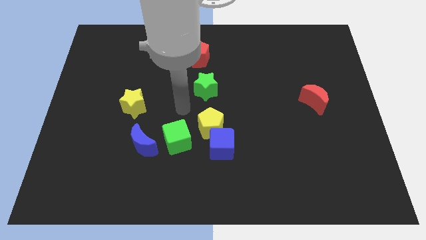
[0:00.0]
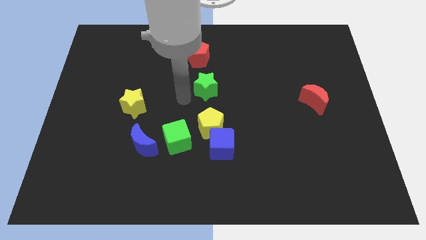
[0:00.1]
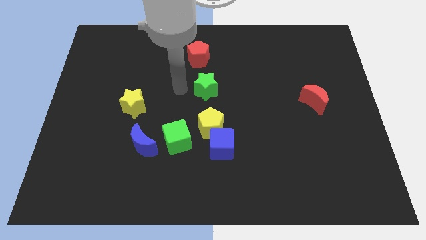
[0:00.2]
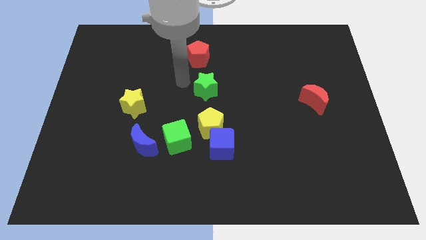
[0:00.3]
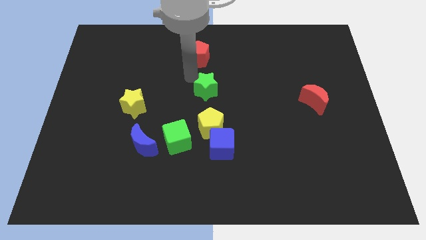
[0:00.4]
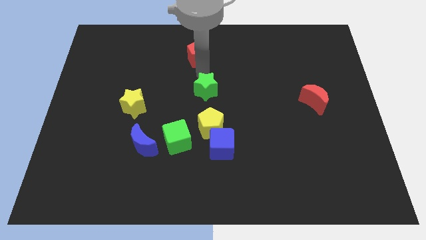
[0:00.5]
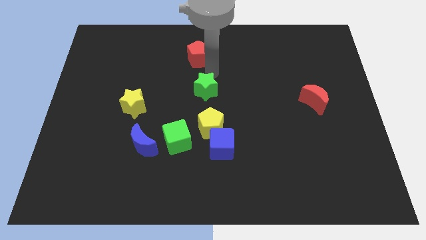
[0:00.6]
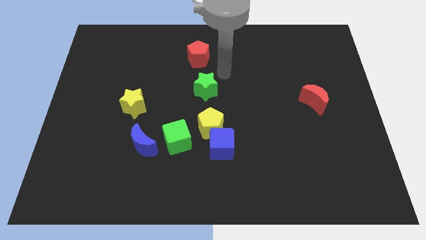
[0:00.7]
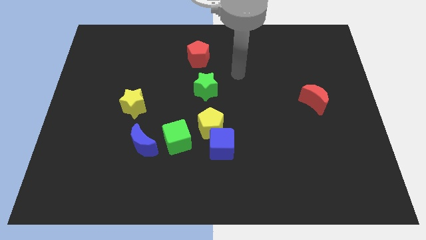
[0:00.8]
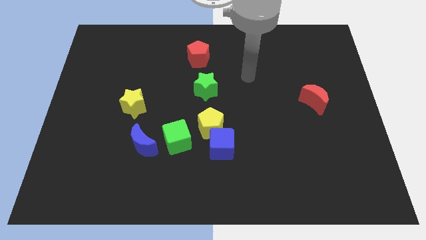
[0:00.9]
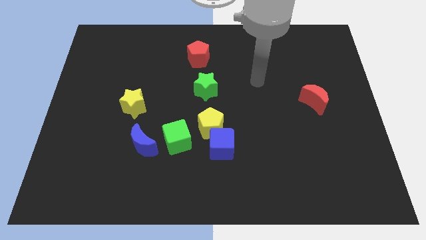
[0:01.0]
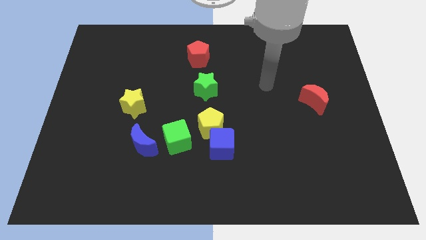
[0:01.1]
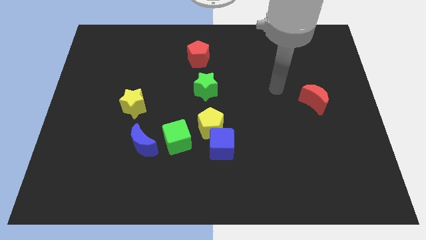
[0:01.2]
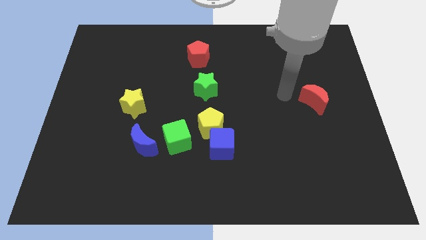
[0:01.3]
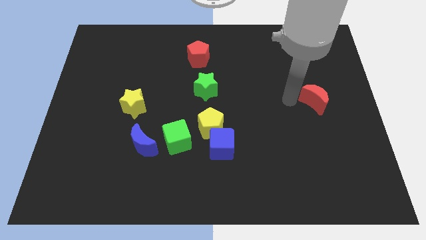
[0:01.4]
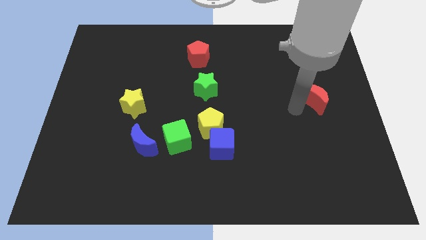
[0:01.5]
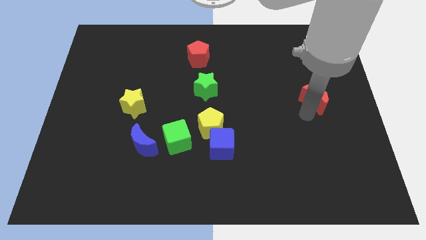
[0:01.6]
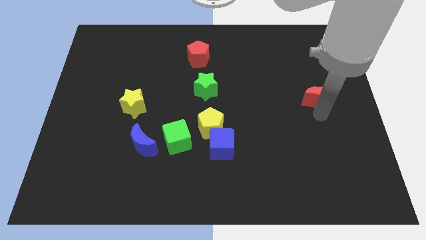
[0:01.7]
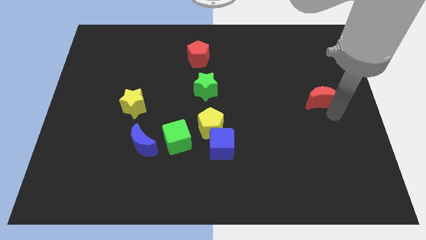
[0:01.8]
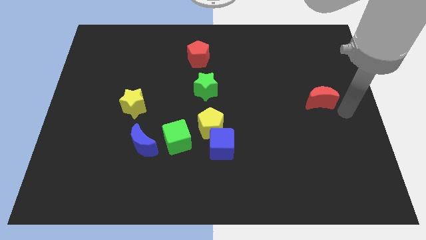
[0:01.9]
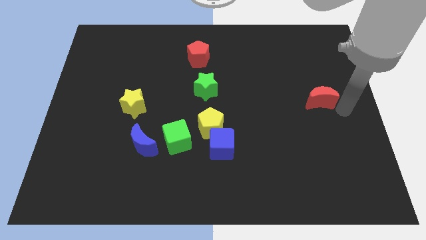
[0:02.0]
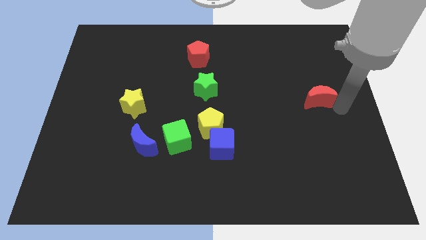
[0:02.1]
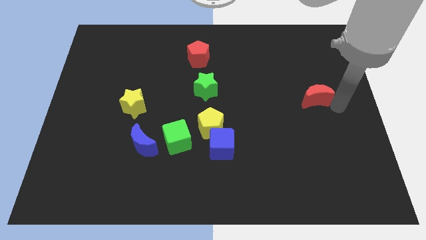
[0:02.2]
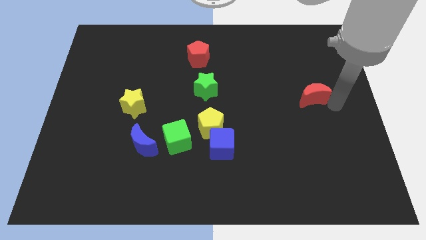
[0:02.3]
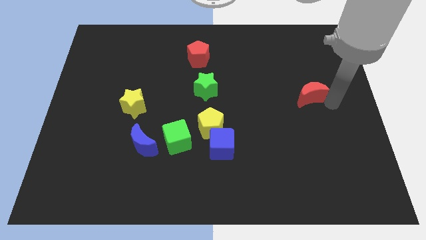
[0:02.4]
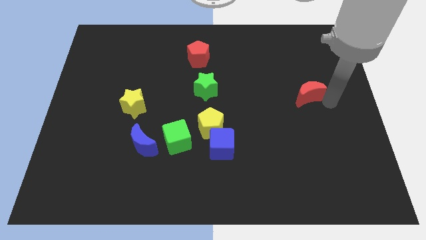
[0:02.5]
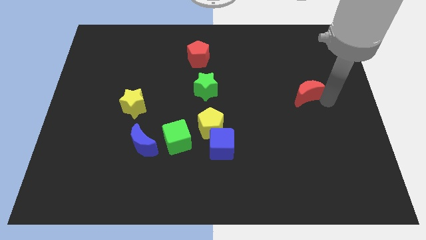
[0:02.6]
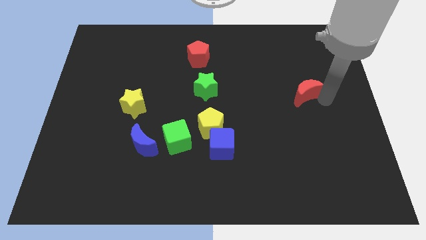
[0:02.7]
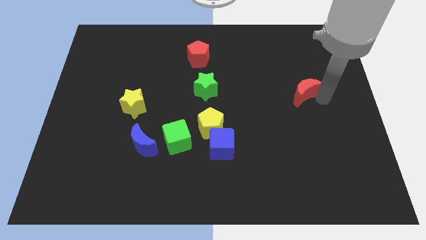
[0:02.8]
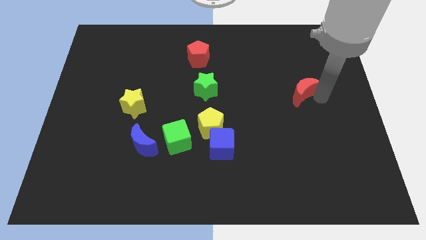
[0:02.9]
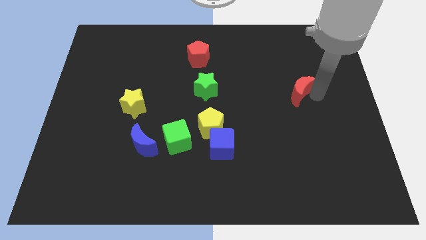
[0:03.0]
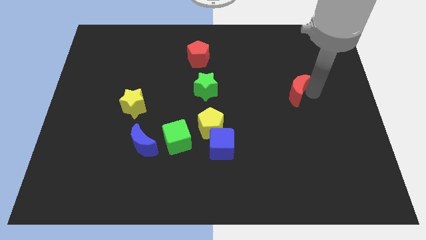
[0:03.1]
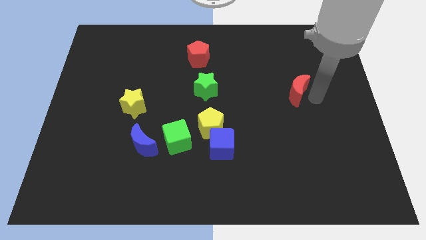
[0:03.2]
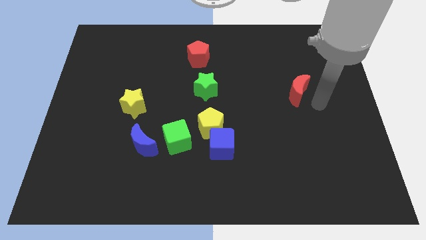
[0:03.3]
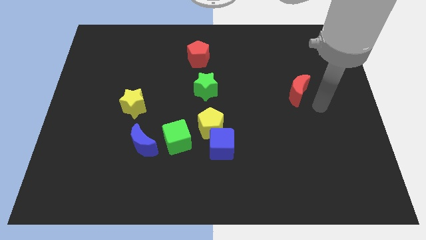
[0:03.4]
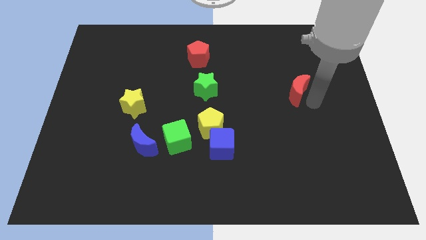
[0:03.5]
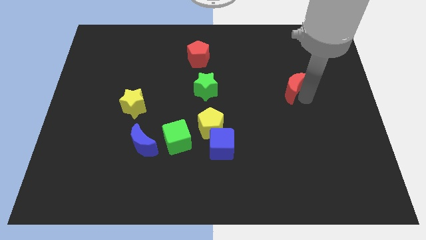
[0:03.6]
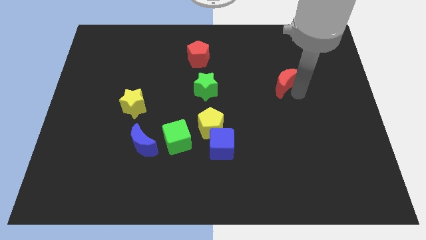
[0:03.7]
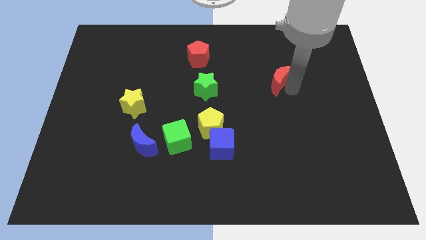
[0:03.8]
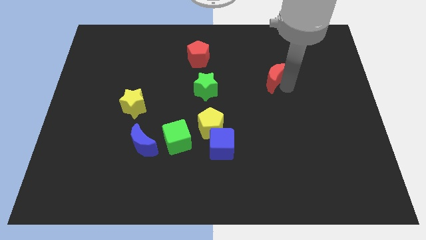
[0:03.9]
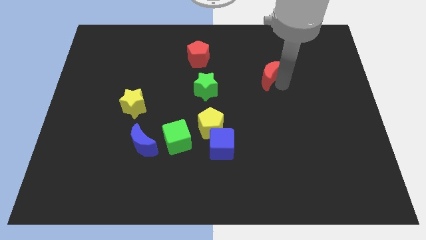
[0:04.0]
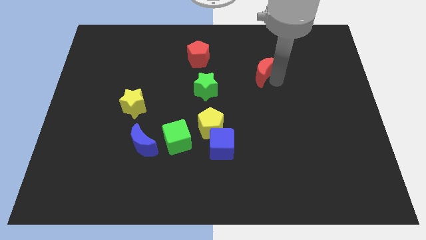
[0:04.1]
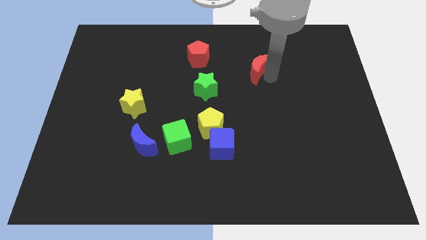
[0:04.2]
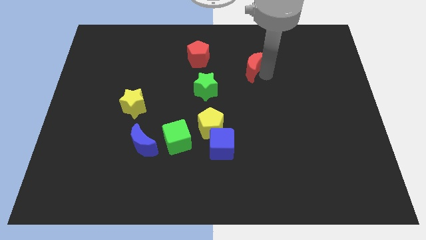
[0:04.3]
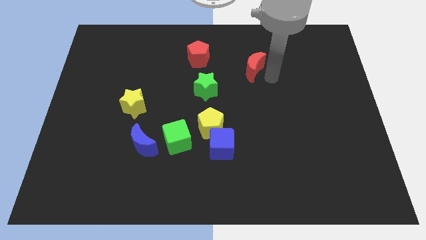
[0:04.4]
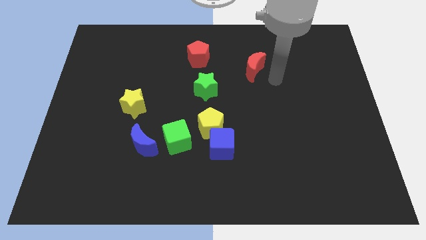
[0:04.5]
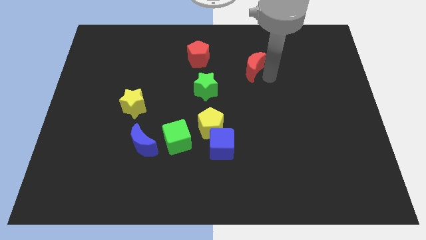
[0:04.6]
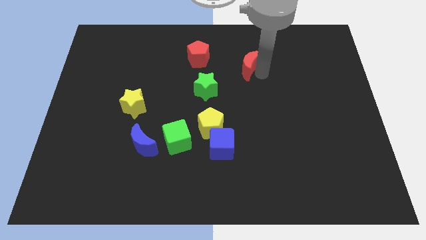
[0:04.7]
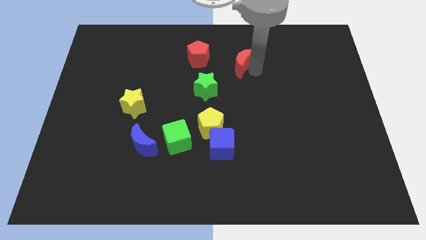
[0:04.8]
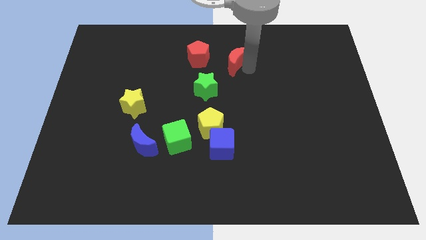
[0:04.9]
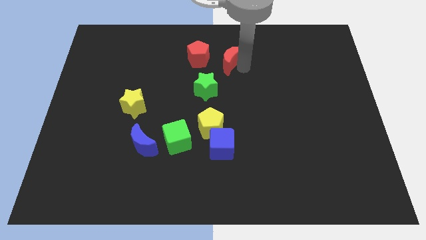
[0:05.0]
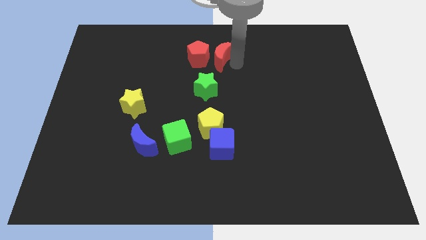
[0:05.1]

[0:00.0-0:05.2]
slide the red moon close to the red pentagon

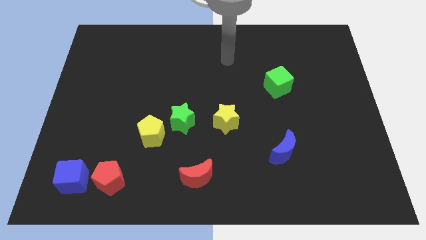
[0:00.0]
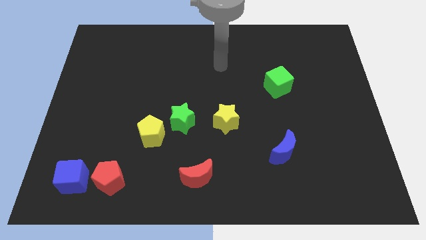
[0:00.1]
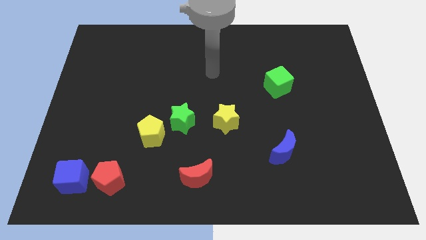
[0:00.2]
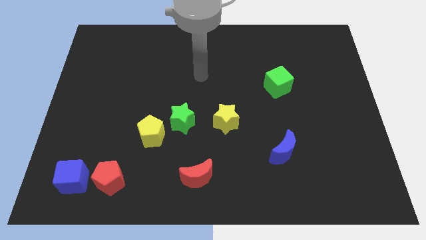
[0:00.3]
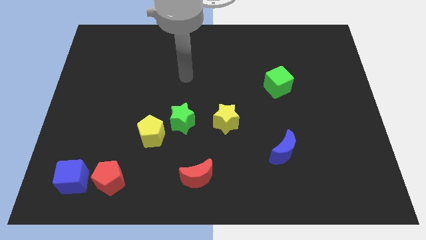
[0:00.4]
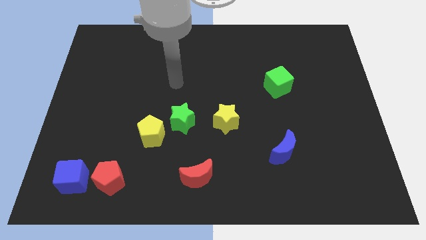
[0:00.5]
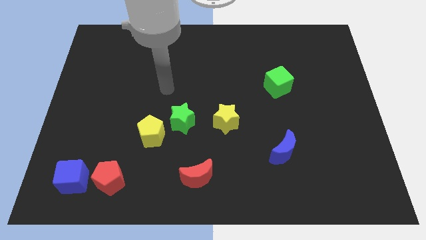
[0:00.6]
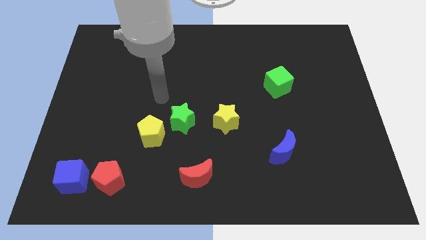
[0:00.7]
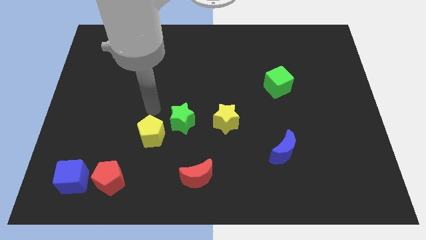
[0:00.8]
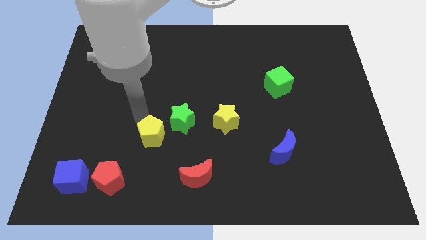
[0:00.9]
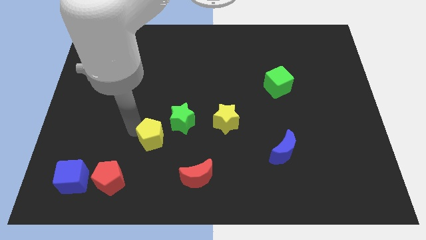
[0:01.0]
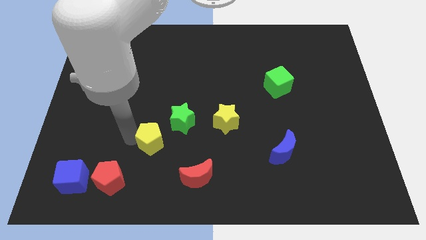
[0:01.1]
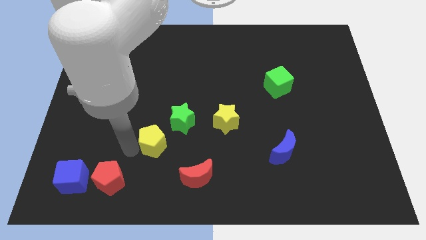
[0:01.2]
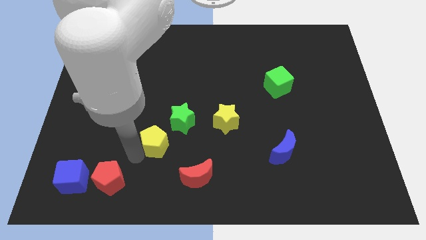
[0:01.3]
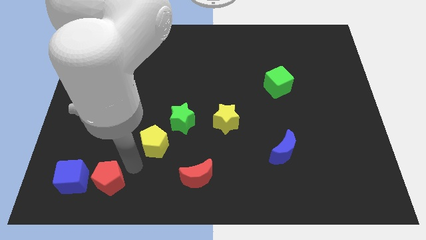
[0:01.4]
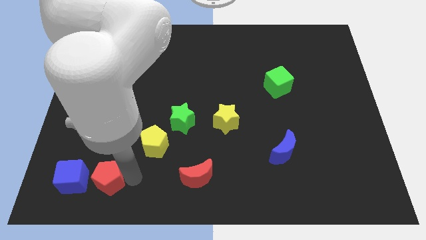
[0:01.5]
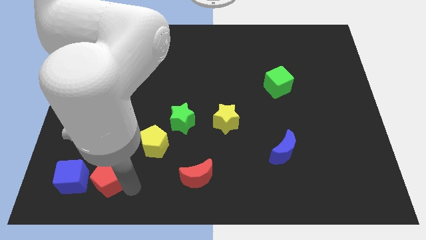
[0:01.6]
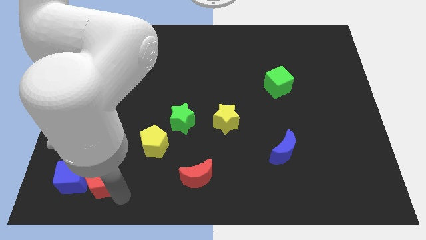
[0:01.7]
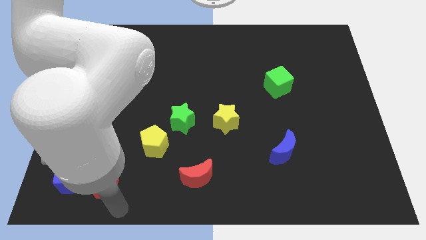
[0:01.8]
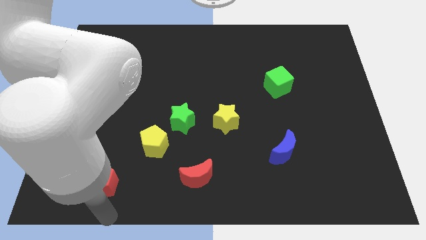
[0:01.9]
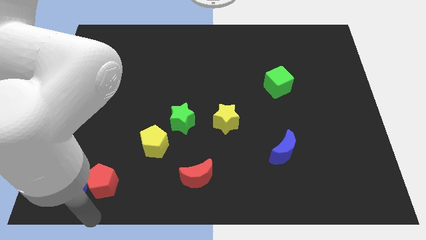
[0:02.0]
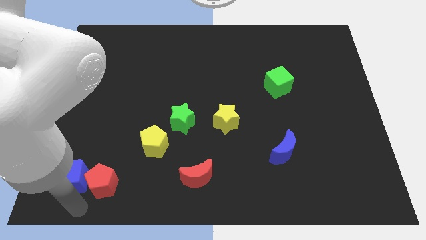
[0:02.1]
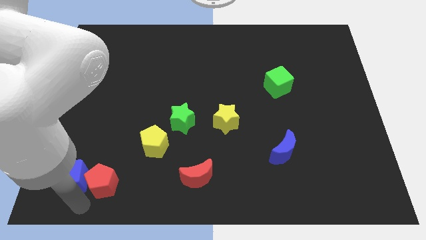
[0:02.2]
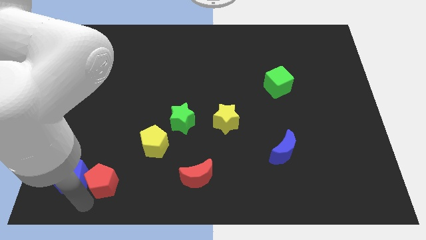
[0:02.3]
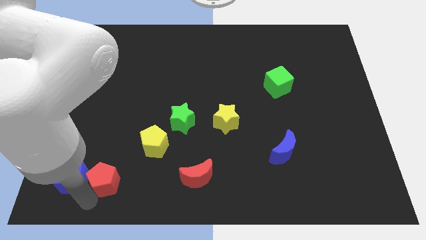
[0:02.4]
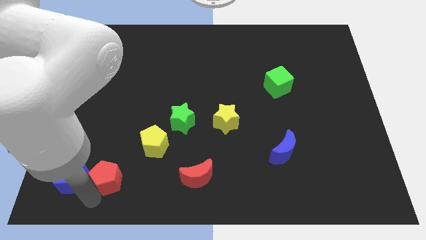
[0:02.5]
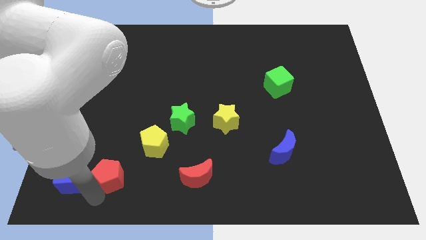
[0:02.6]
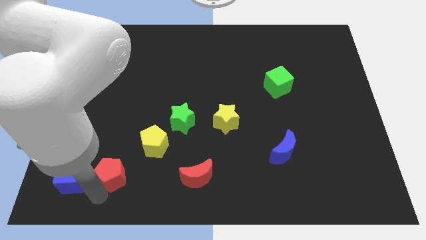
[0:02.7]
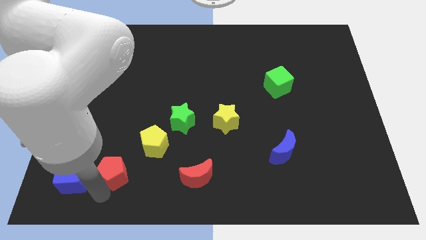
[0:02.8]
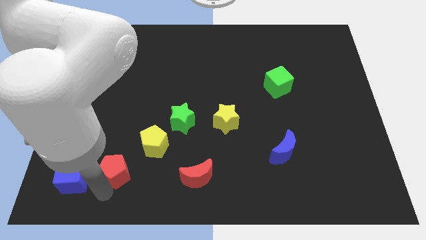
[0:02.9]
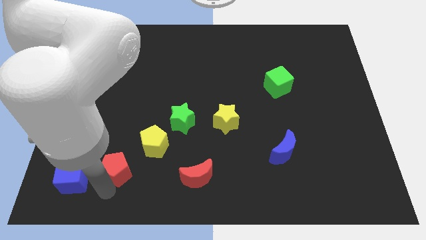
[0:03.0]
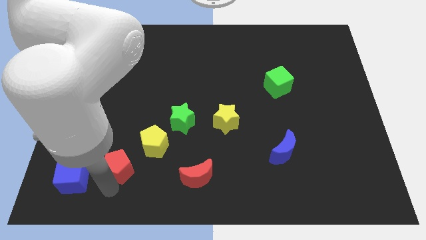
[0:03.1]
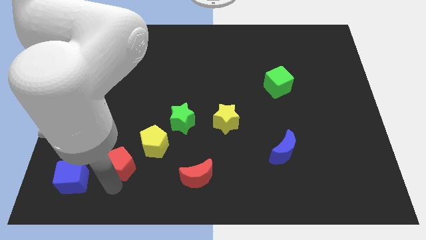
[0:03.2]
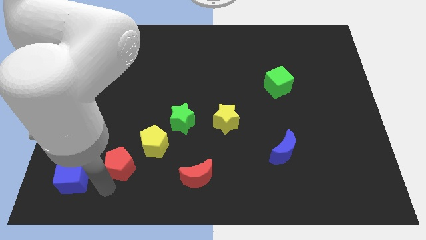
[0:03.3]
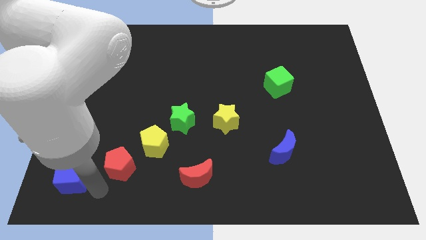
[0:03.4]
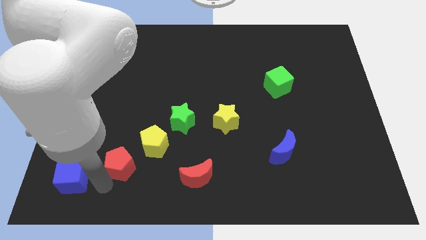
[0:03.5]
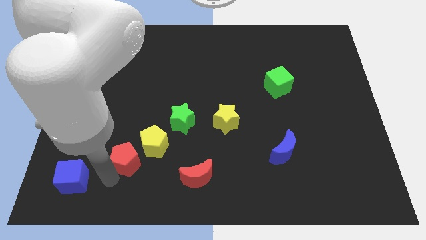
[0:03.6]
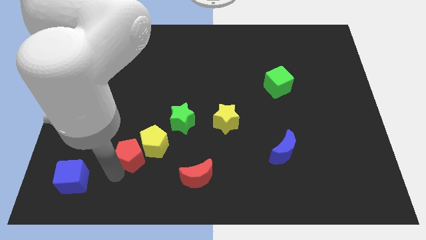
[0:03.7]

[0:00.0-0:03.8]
put the red pentagon next to the yellow pentagon
